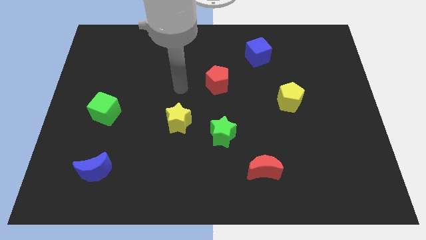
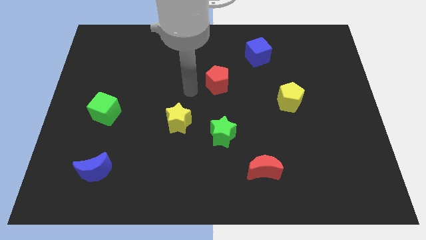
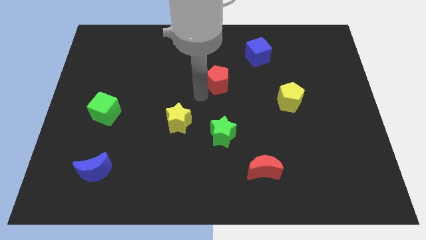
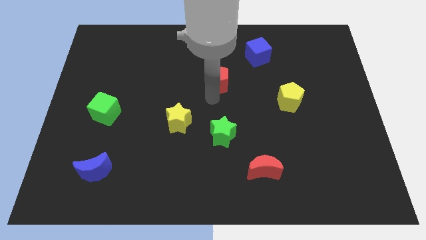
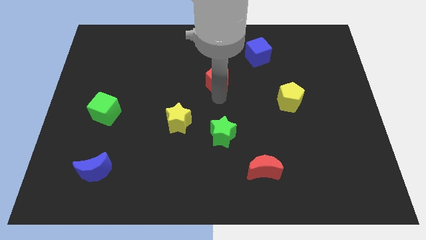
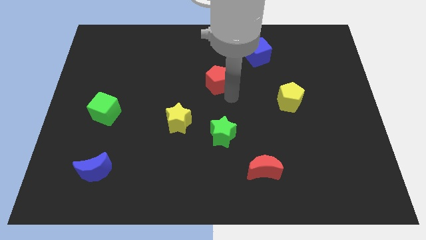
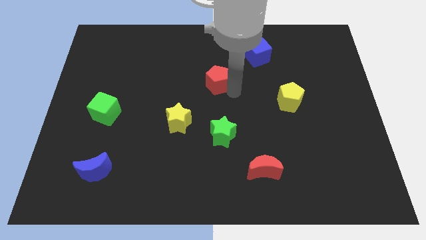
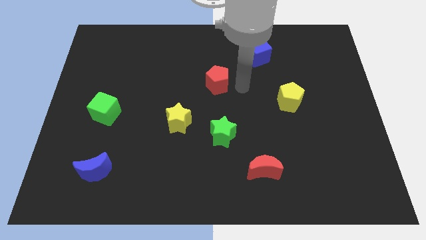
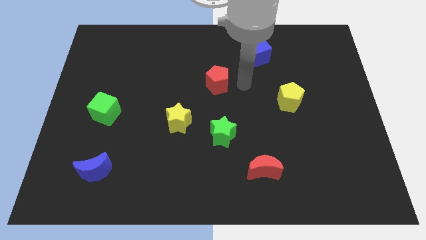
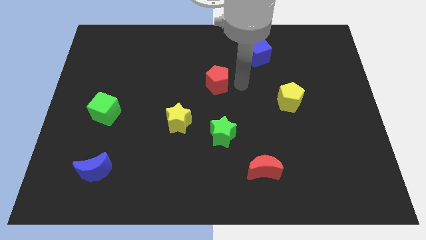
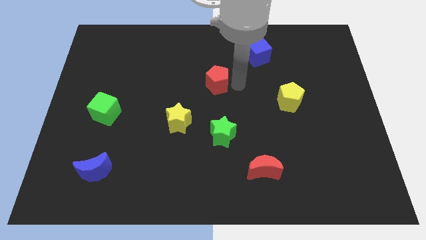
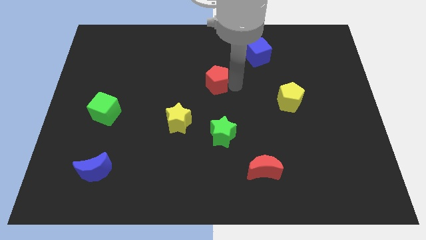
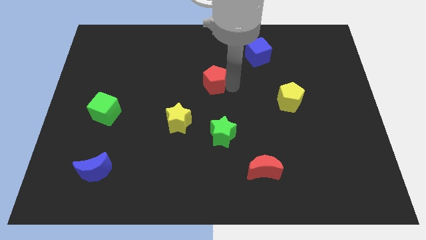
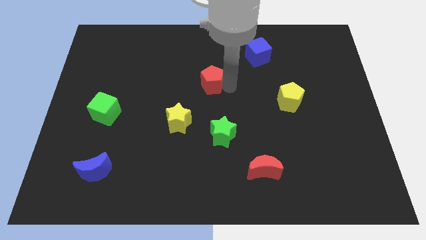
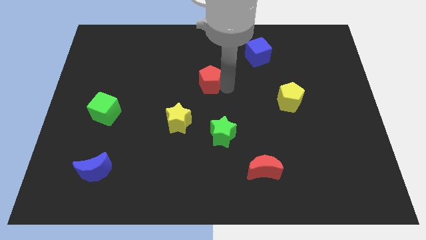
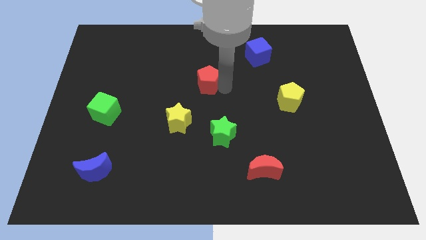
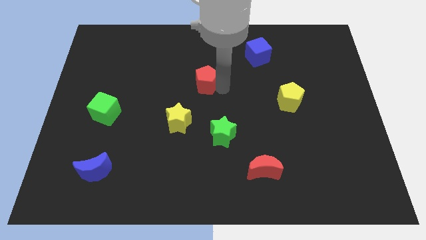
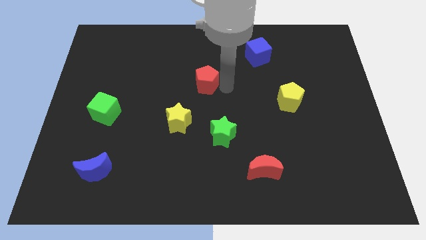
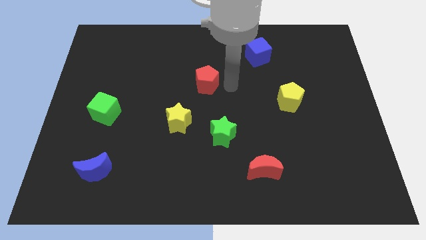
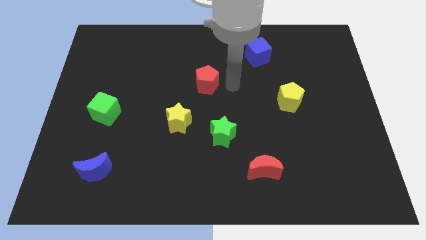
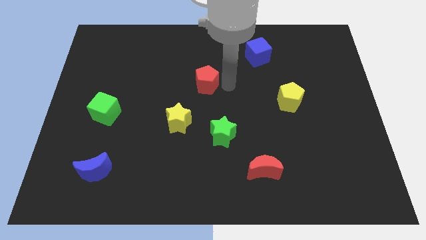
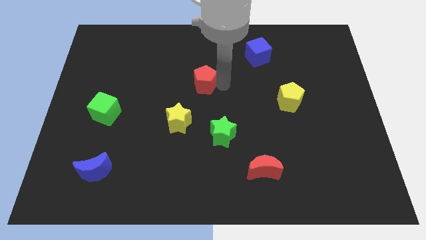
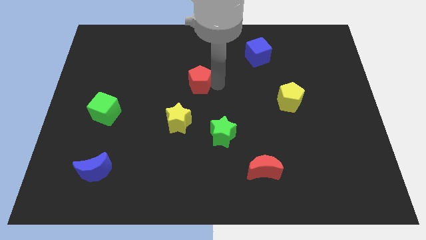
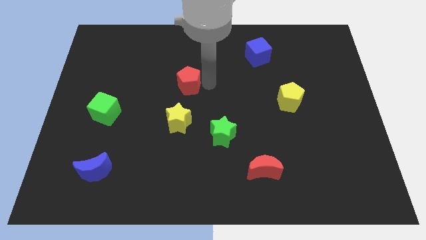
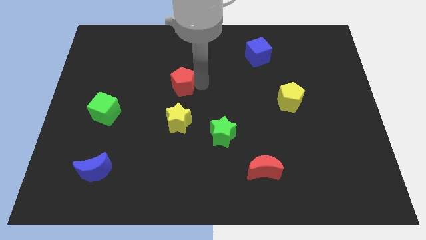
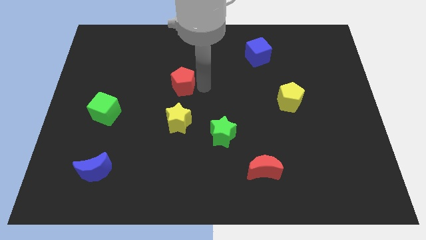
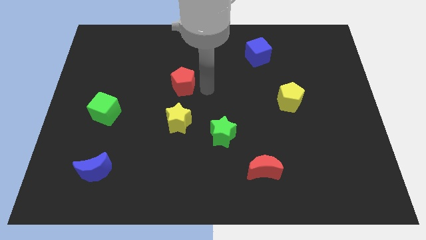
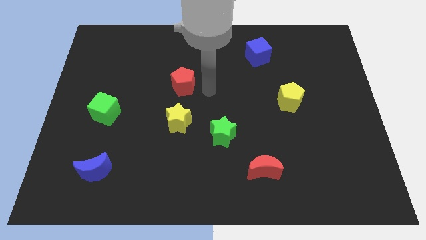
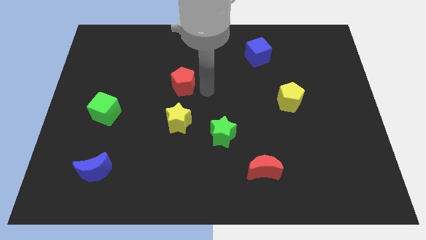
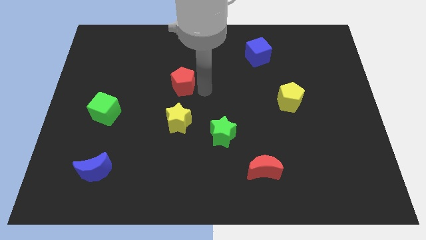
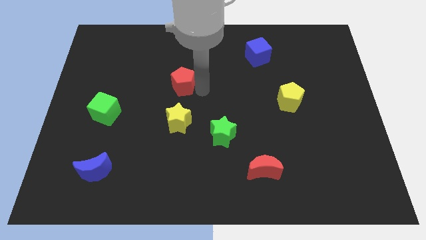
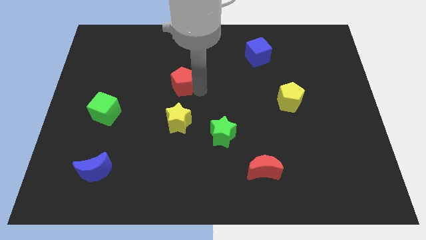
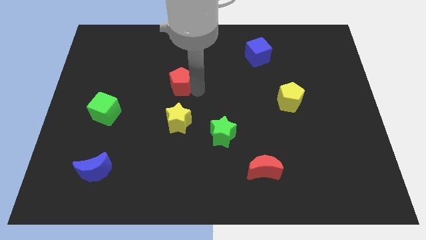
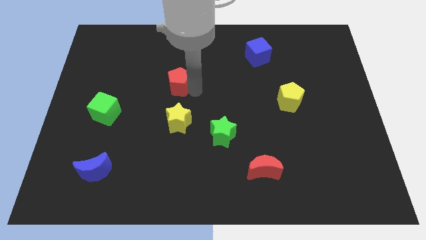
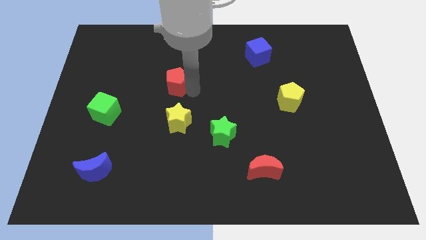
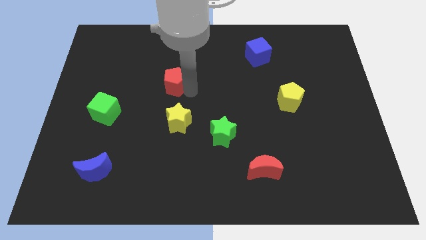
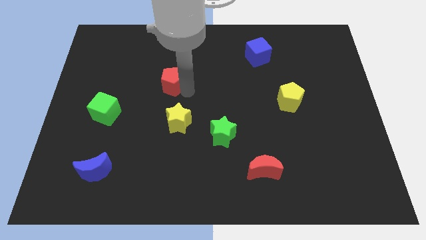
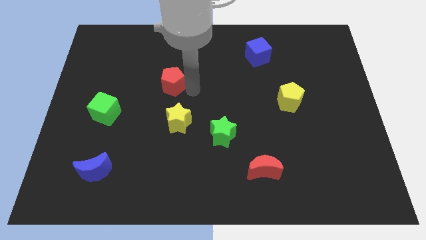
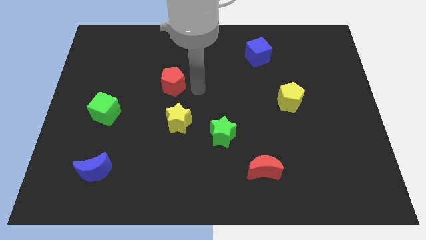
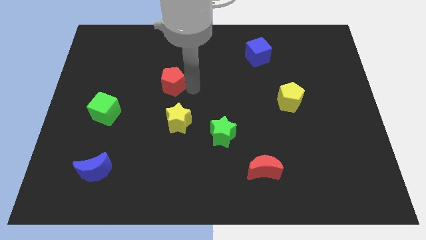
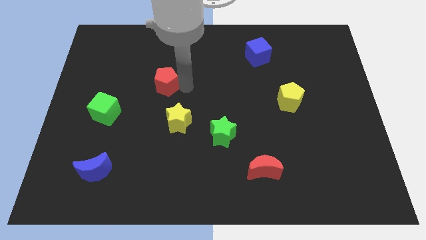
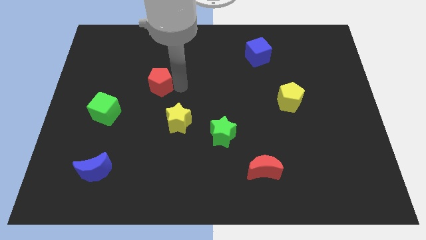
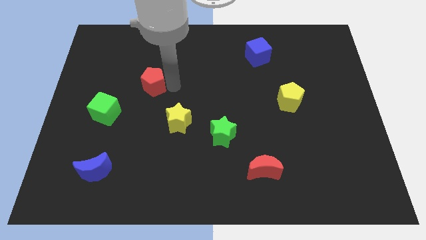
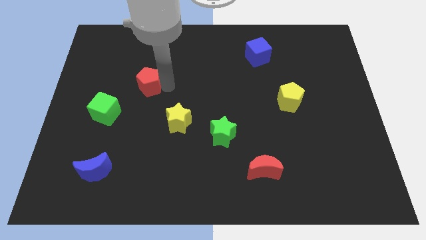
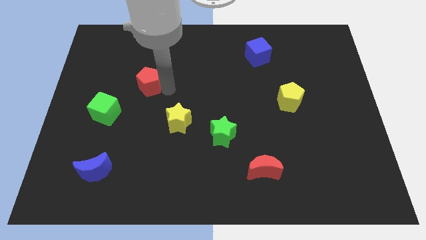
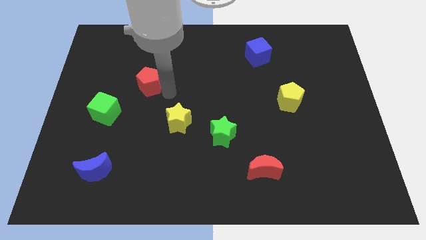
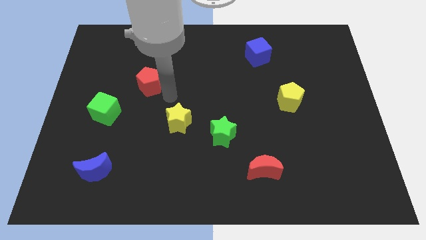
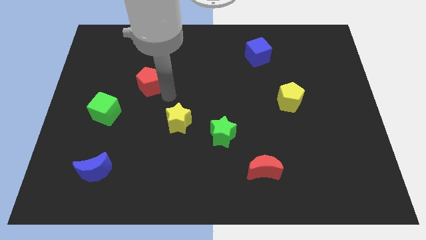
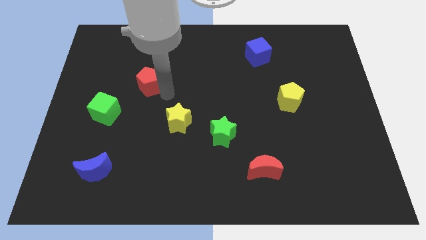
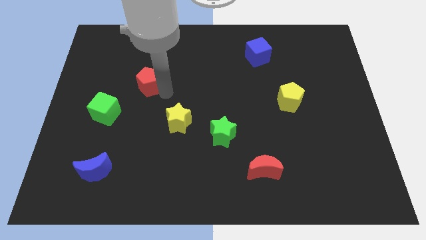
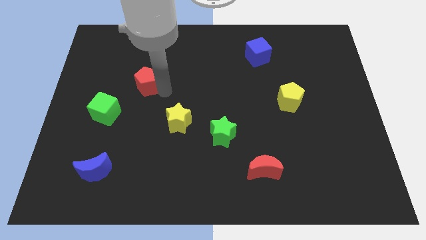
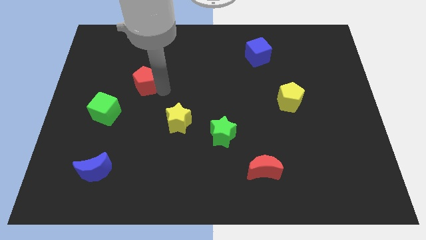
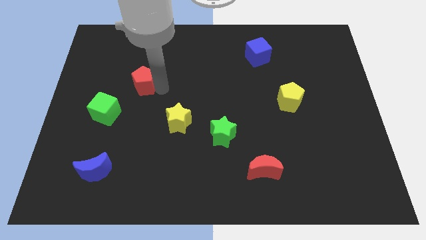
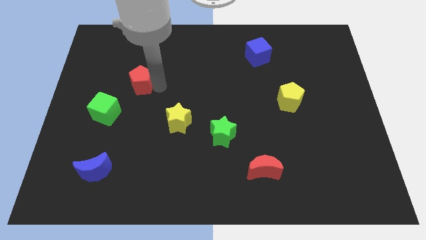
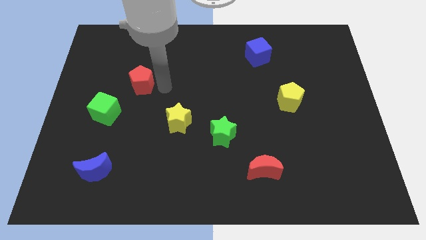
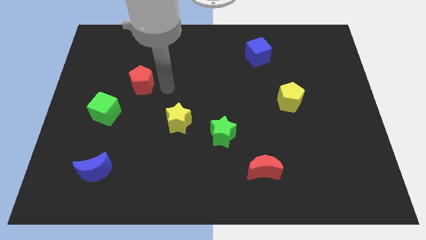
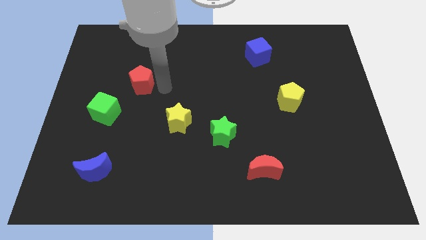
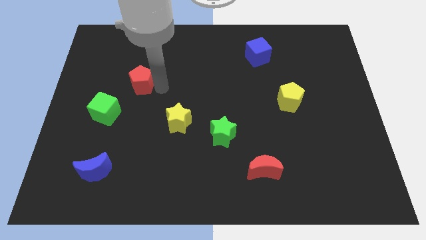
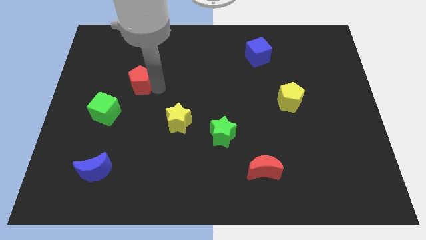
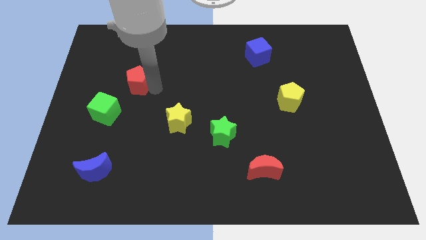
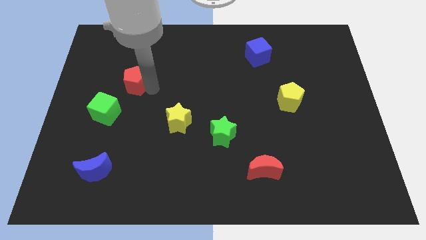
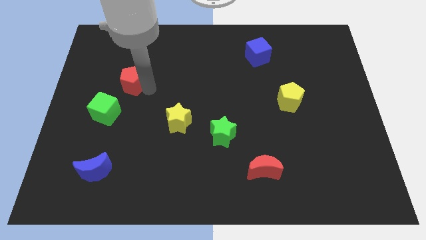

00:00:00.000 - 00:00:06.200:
slide the red pentagon to the top side of the green cube
